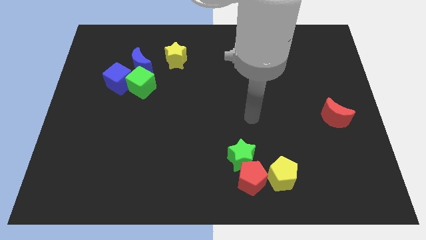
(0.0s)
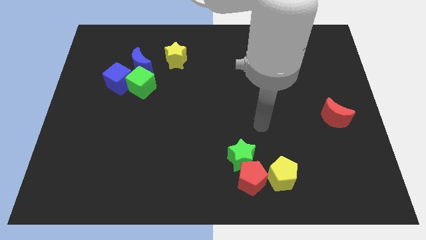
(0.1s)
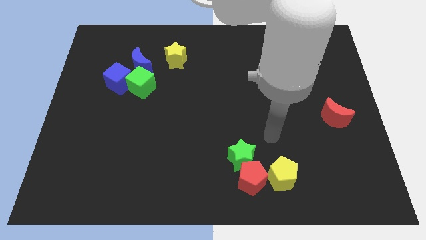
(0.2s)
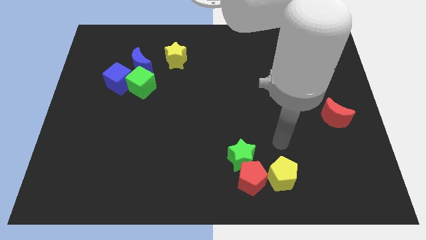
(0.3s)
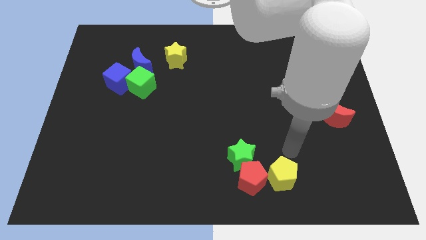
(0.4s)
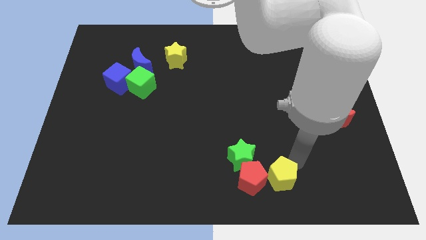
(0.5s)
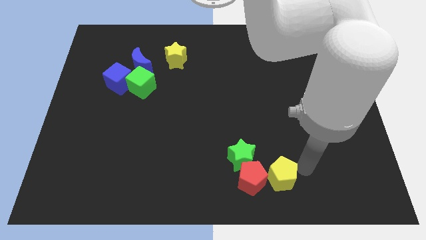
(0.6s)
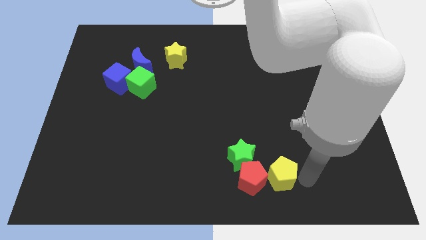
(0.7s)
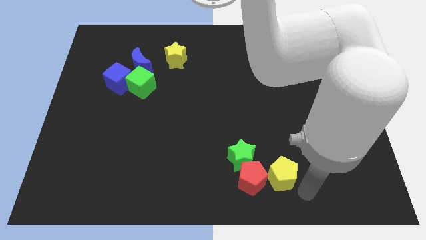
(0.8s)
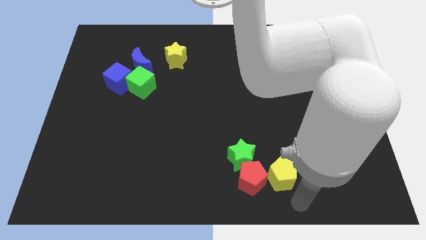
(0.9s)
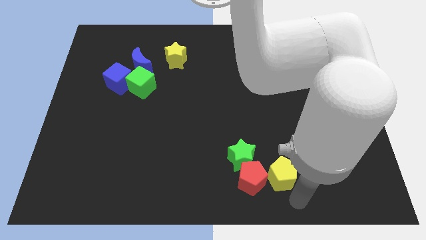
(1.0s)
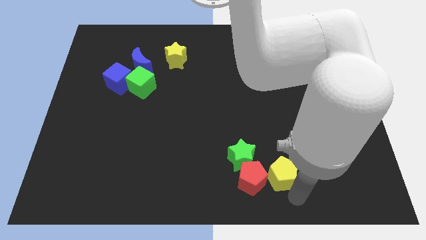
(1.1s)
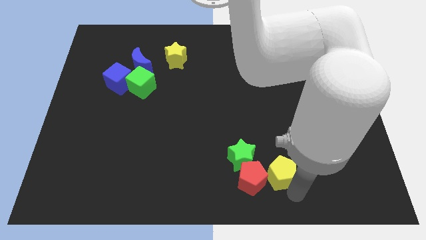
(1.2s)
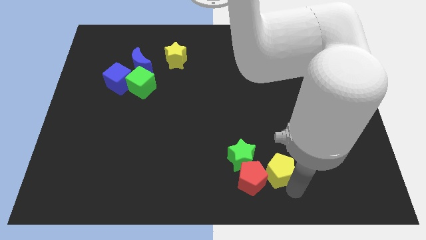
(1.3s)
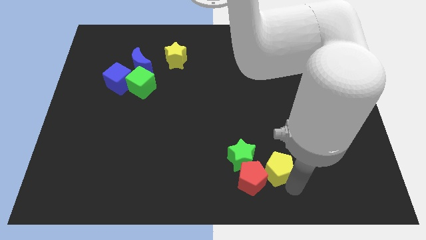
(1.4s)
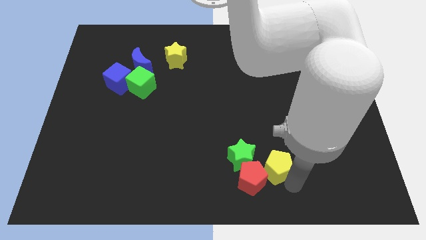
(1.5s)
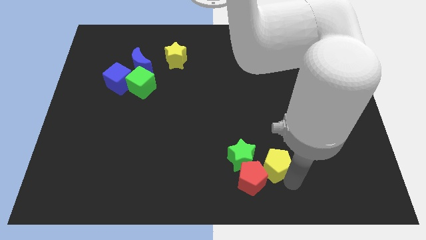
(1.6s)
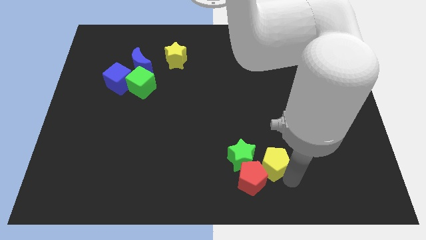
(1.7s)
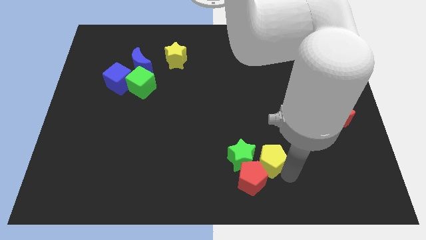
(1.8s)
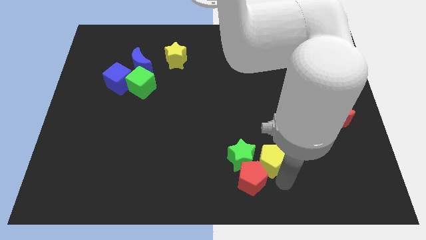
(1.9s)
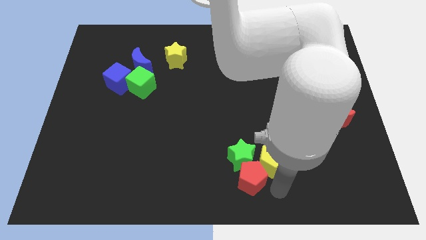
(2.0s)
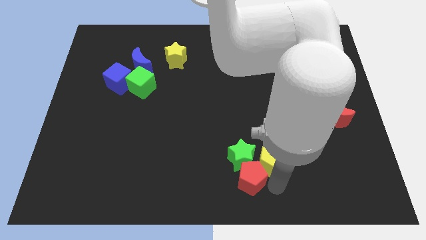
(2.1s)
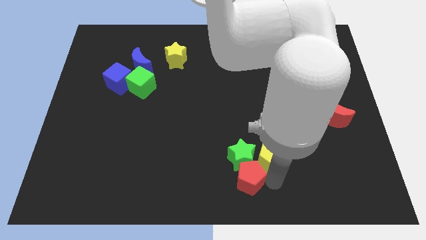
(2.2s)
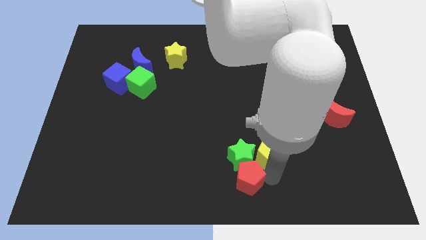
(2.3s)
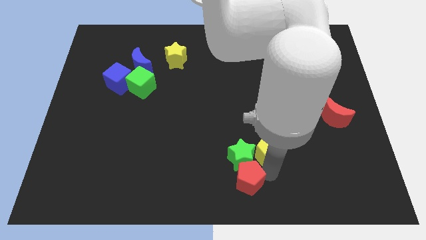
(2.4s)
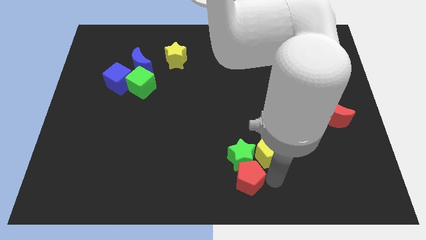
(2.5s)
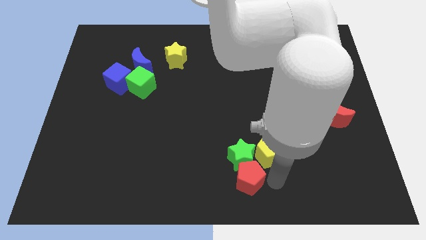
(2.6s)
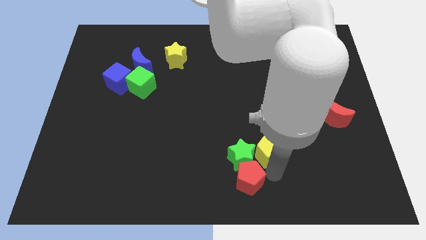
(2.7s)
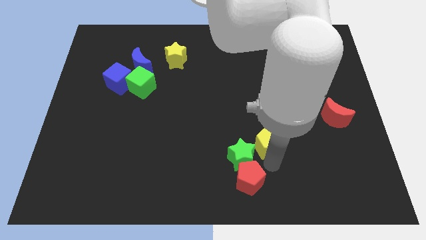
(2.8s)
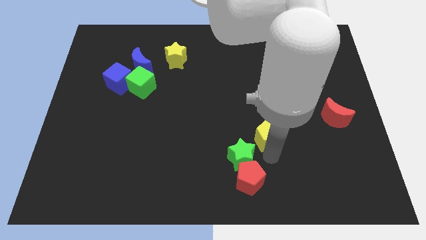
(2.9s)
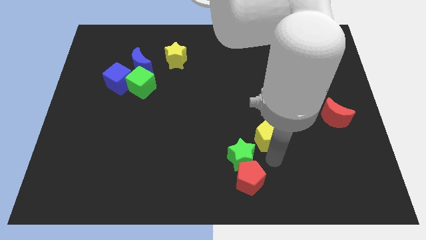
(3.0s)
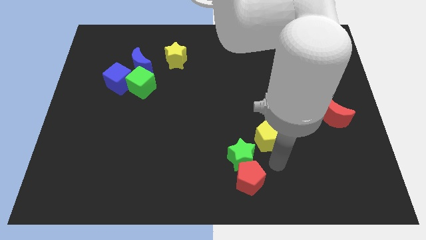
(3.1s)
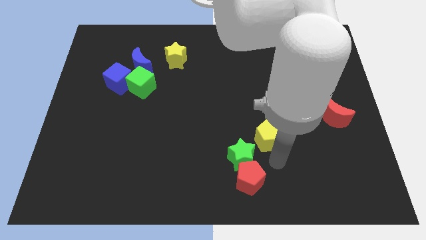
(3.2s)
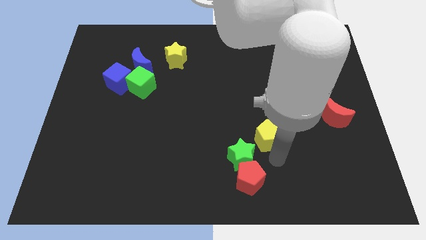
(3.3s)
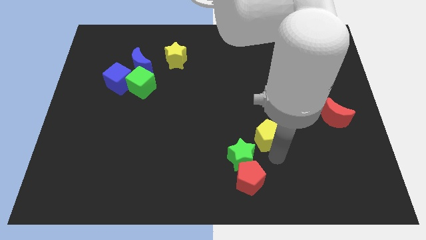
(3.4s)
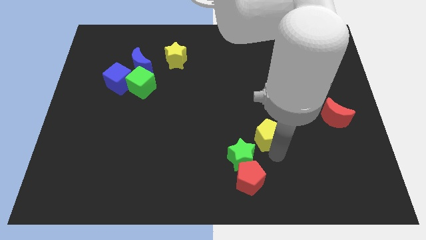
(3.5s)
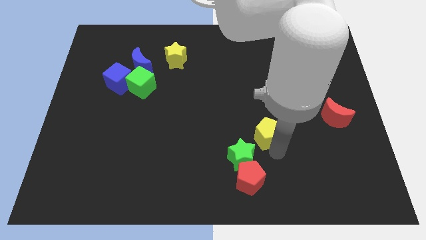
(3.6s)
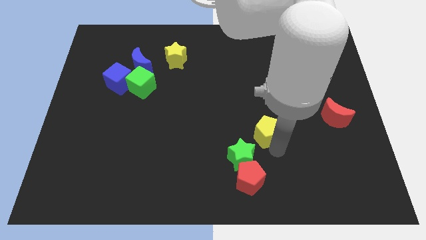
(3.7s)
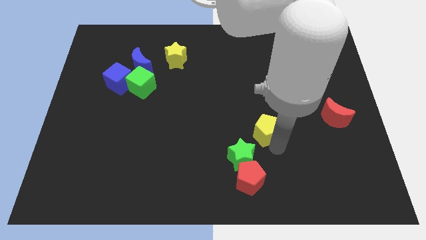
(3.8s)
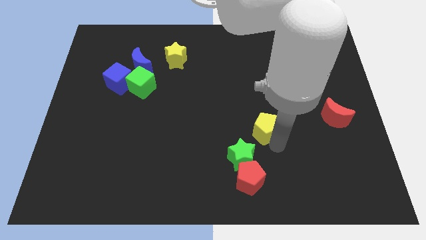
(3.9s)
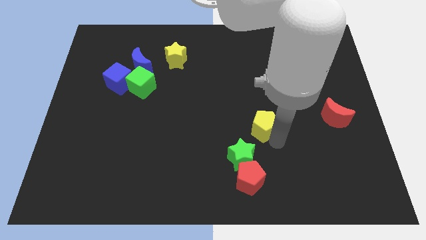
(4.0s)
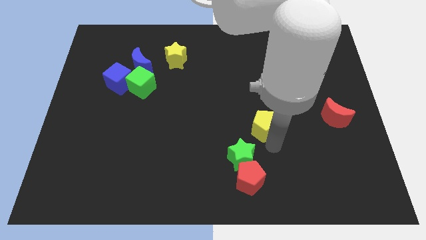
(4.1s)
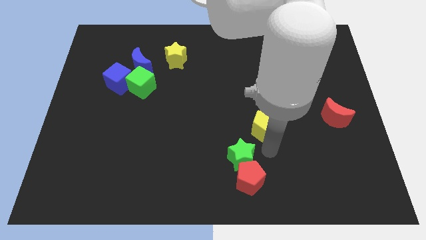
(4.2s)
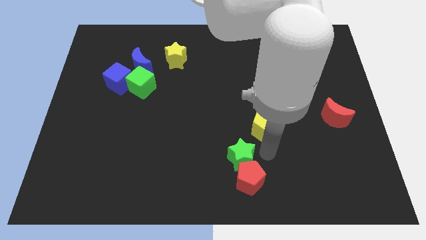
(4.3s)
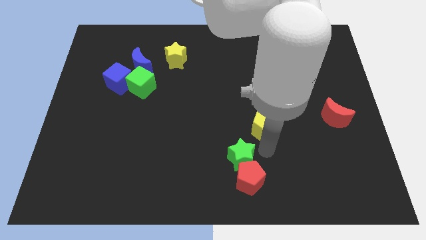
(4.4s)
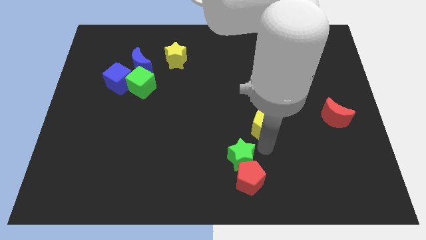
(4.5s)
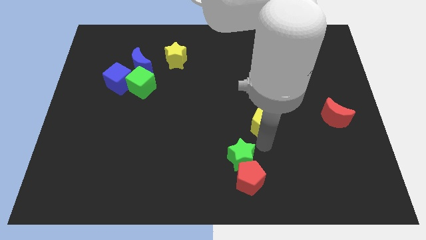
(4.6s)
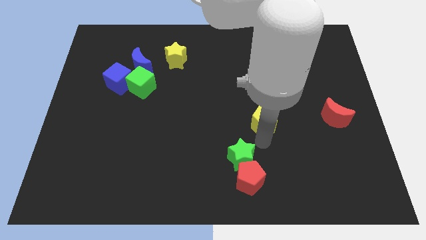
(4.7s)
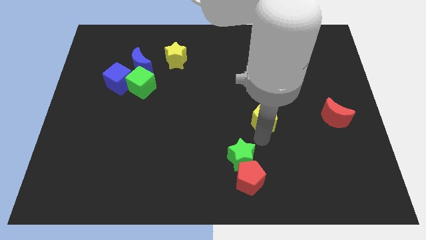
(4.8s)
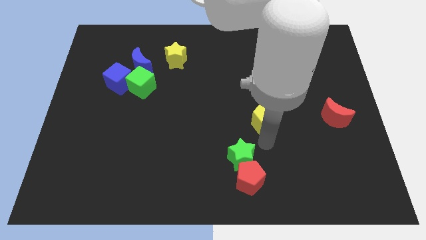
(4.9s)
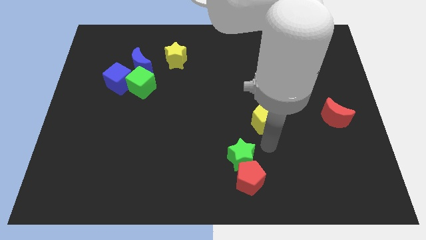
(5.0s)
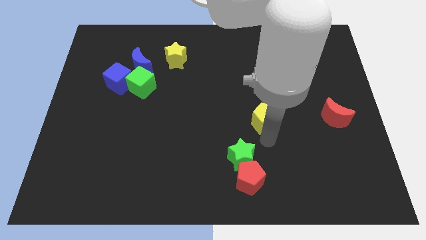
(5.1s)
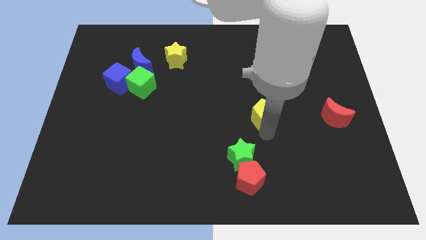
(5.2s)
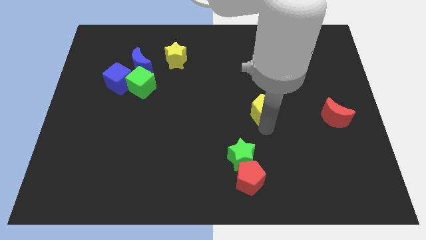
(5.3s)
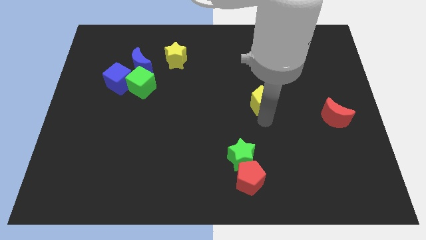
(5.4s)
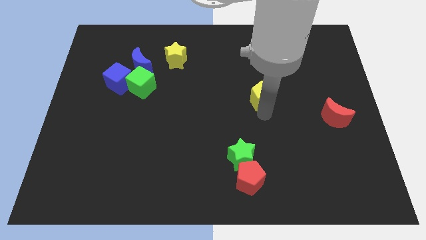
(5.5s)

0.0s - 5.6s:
push the yellow pentagon upwards

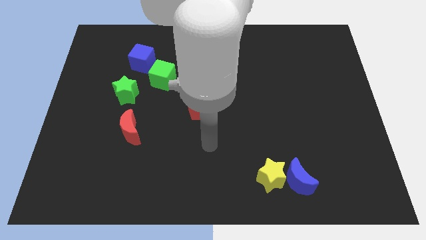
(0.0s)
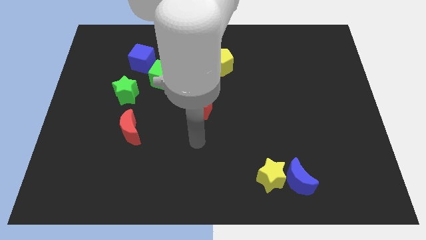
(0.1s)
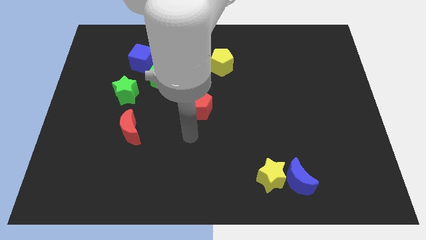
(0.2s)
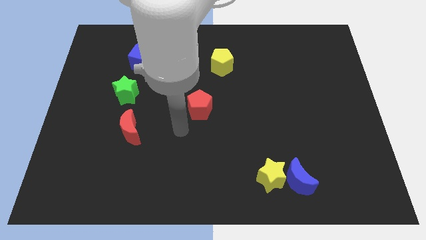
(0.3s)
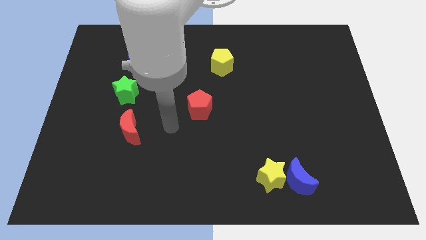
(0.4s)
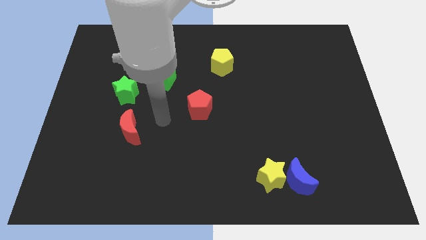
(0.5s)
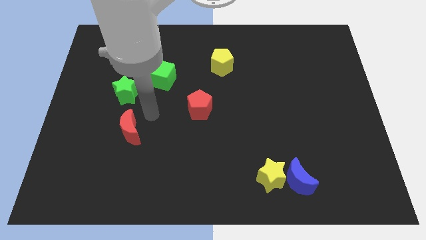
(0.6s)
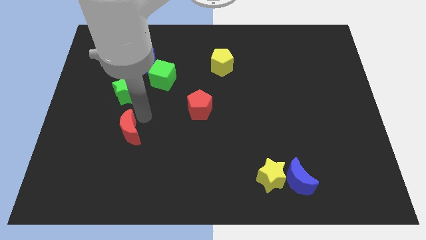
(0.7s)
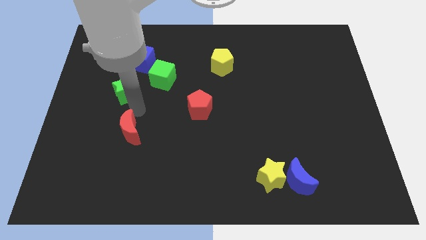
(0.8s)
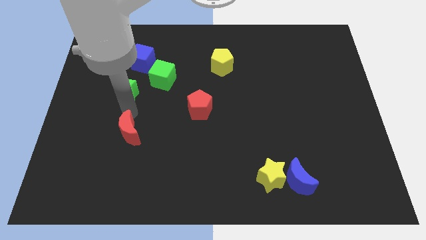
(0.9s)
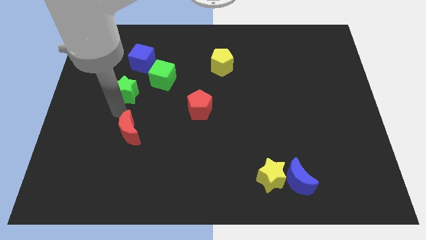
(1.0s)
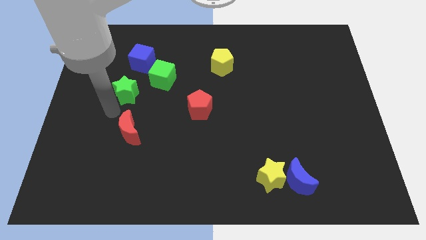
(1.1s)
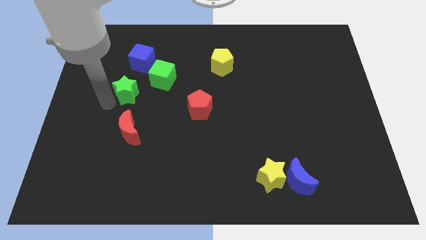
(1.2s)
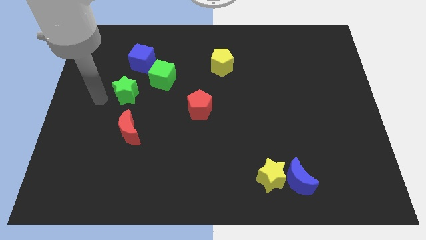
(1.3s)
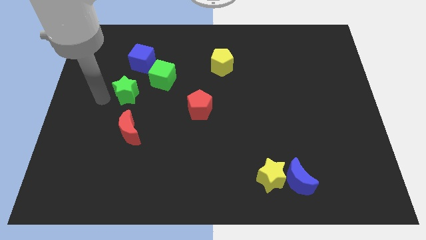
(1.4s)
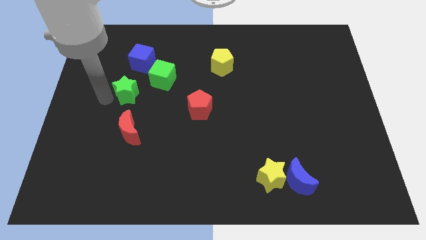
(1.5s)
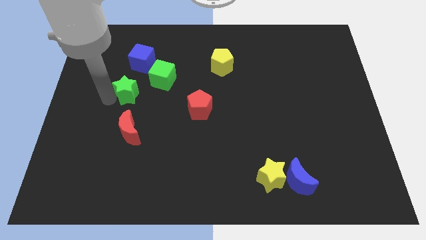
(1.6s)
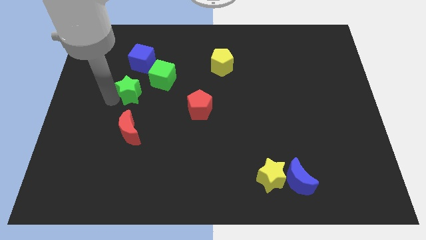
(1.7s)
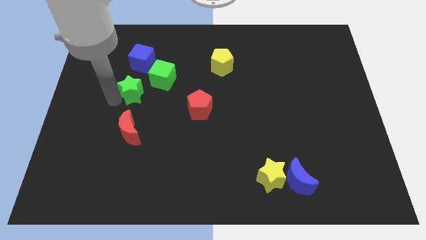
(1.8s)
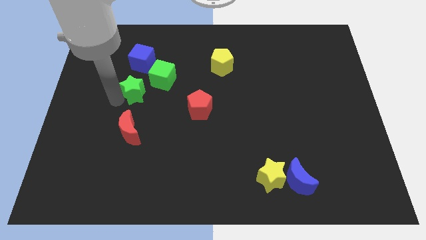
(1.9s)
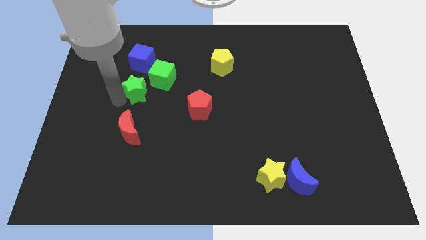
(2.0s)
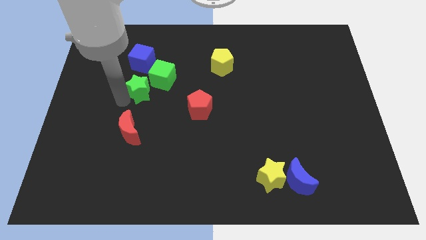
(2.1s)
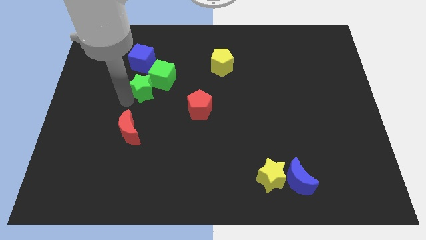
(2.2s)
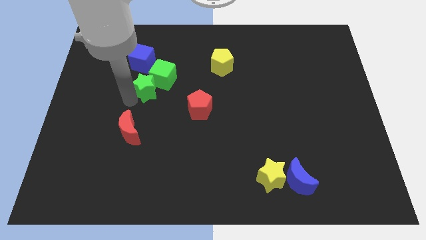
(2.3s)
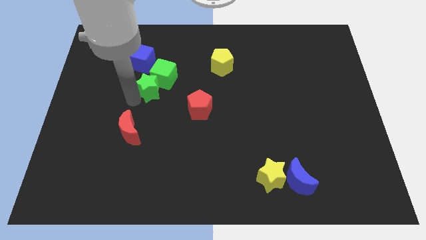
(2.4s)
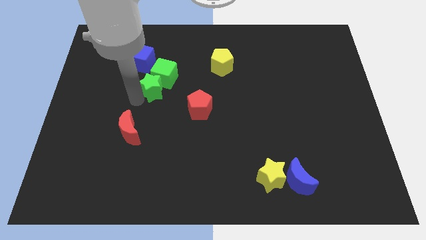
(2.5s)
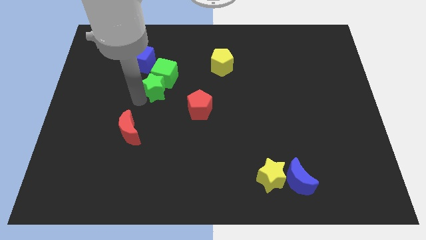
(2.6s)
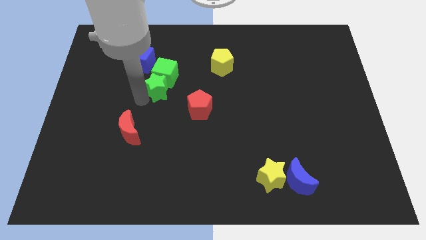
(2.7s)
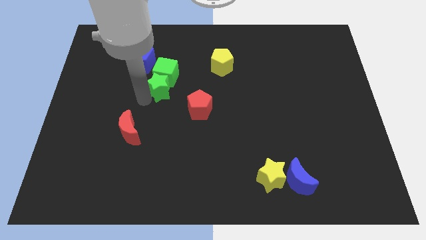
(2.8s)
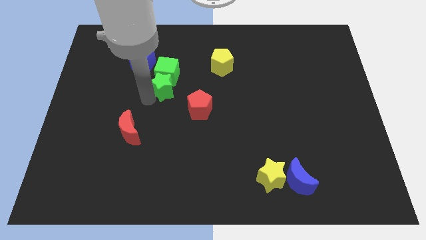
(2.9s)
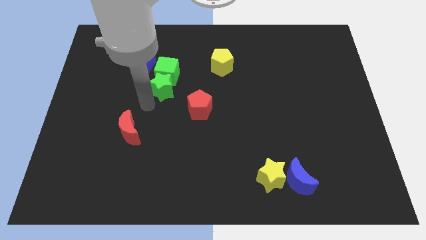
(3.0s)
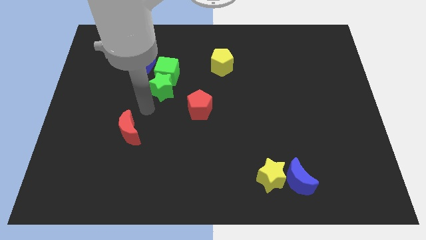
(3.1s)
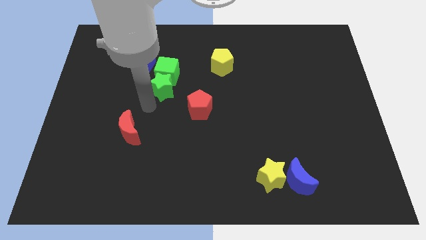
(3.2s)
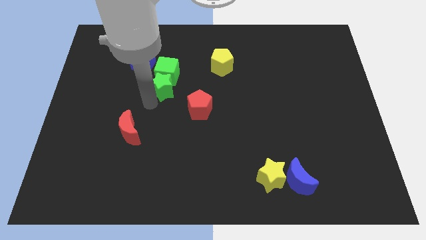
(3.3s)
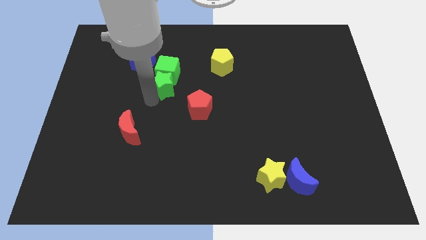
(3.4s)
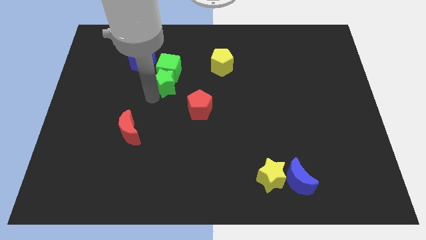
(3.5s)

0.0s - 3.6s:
push the green star somewhat up and to the right diagonally
